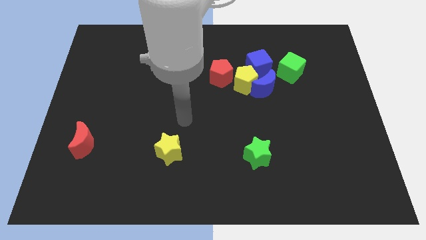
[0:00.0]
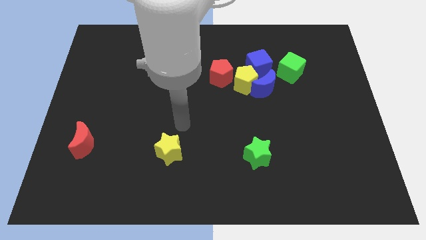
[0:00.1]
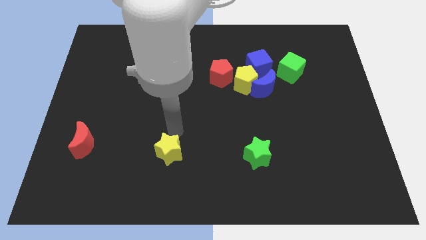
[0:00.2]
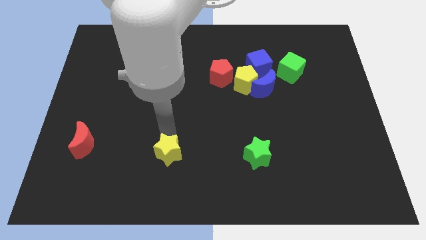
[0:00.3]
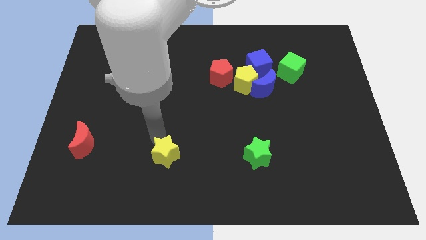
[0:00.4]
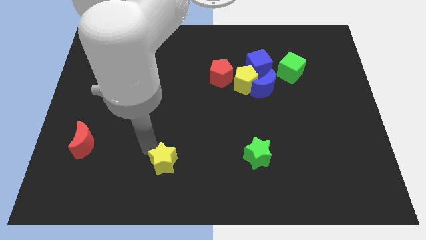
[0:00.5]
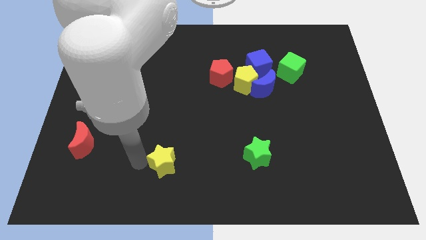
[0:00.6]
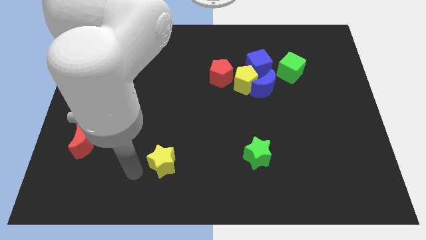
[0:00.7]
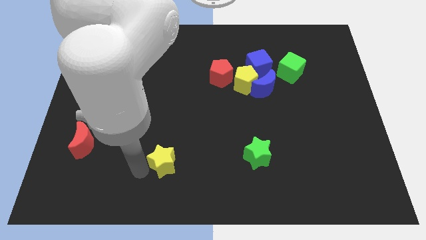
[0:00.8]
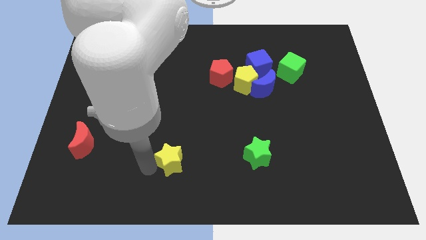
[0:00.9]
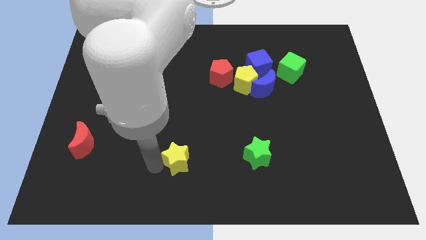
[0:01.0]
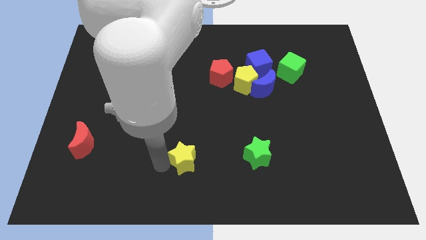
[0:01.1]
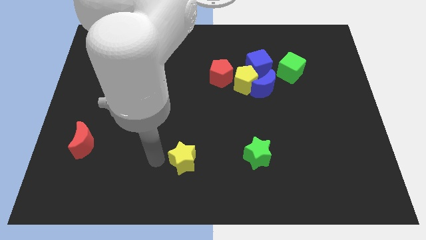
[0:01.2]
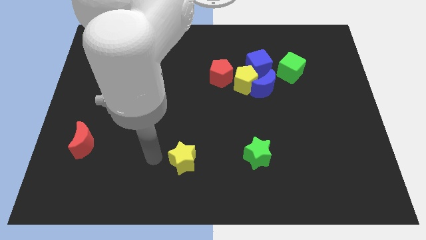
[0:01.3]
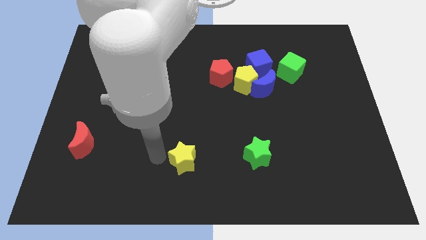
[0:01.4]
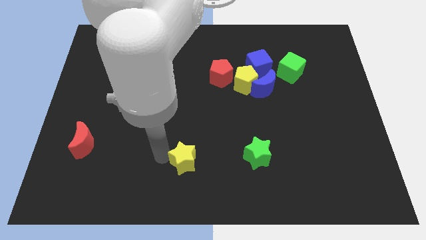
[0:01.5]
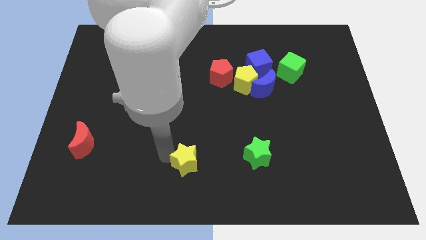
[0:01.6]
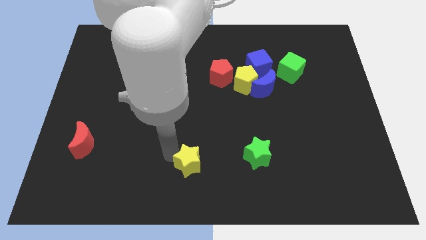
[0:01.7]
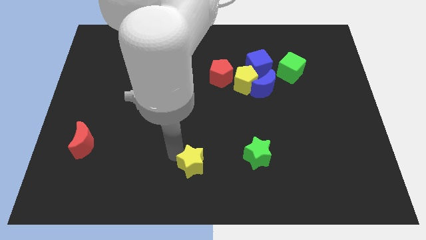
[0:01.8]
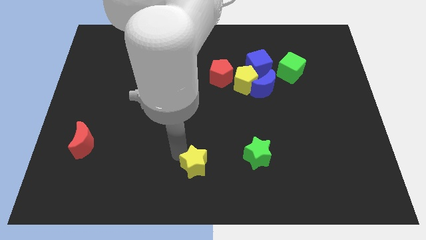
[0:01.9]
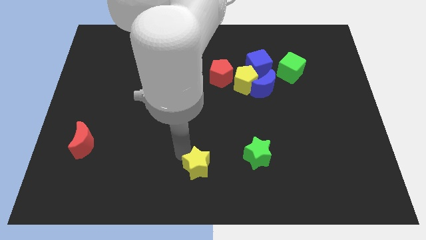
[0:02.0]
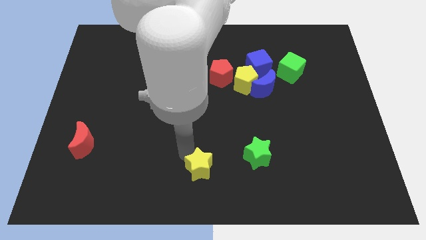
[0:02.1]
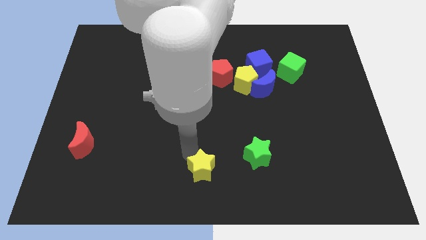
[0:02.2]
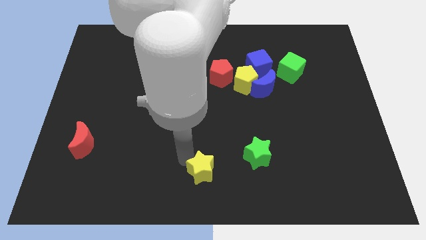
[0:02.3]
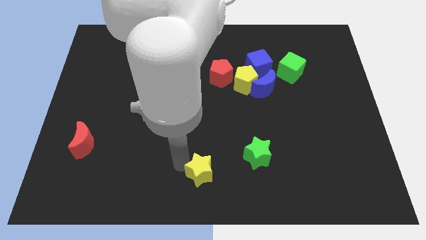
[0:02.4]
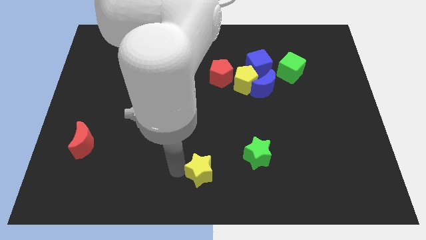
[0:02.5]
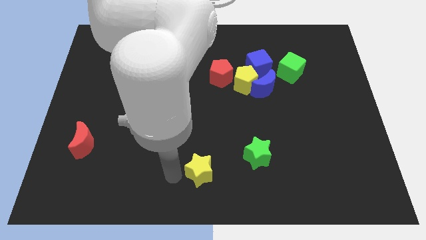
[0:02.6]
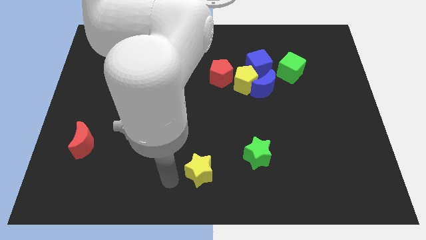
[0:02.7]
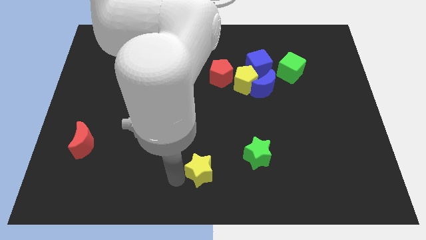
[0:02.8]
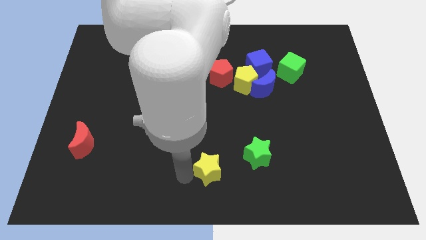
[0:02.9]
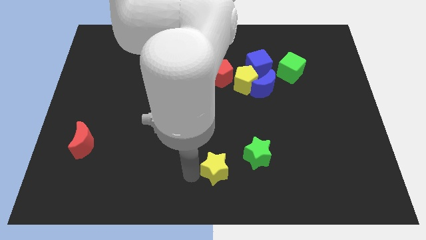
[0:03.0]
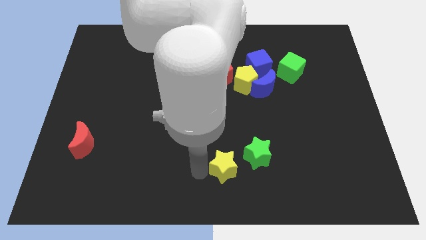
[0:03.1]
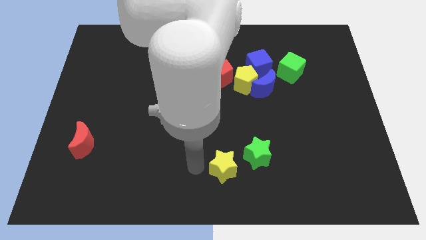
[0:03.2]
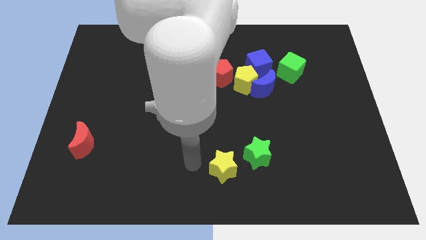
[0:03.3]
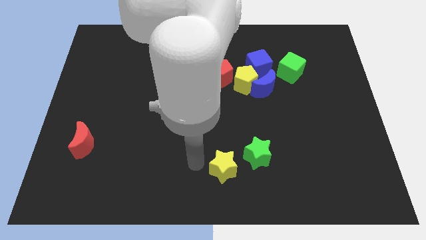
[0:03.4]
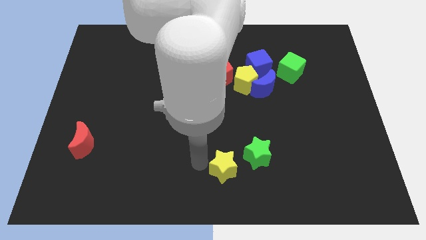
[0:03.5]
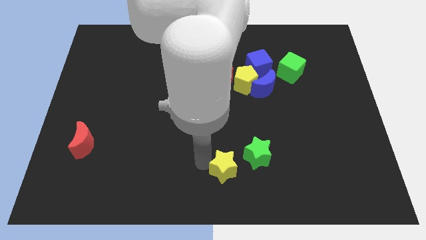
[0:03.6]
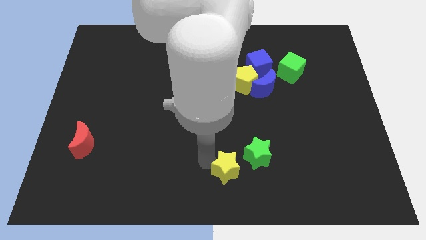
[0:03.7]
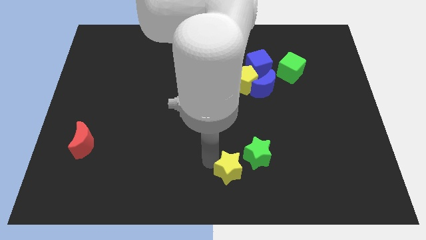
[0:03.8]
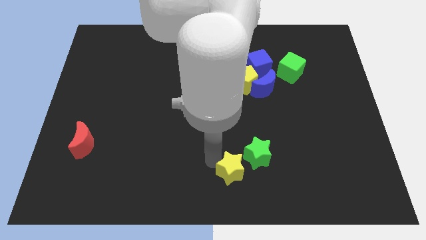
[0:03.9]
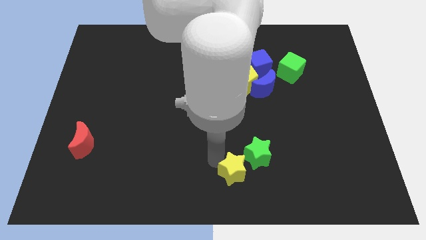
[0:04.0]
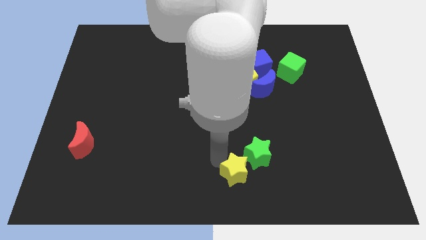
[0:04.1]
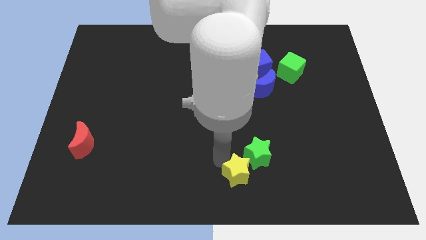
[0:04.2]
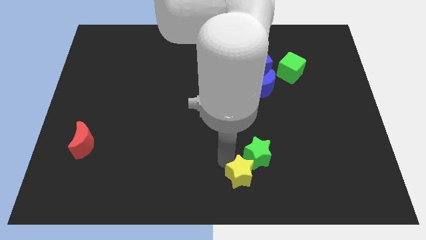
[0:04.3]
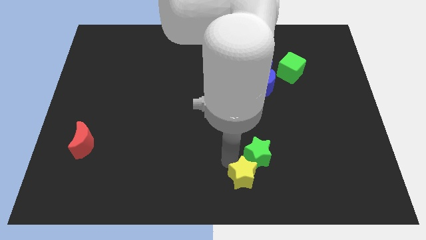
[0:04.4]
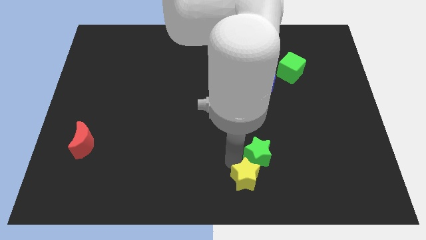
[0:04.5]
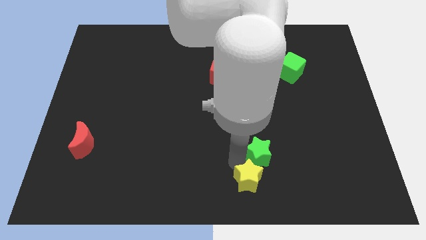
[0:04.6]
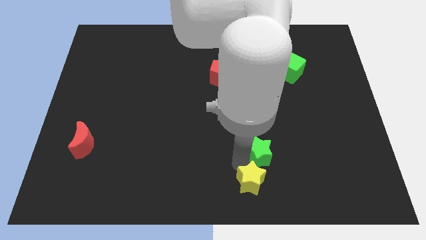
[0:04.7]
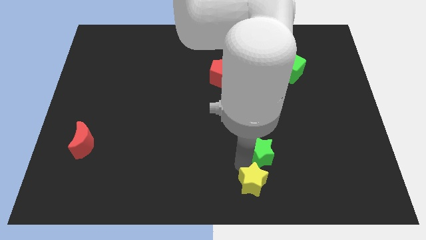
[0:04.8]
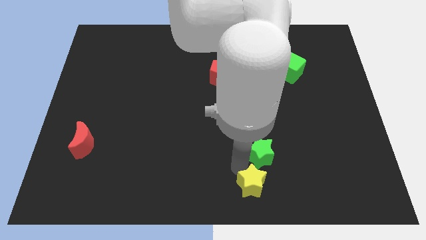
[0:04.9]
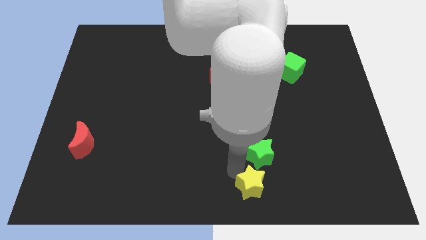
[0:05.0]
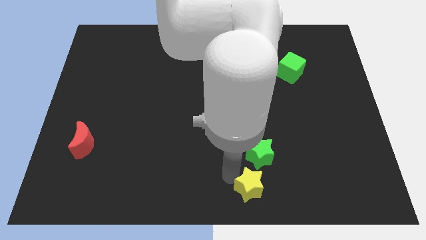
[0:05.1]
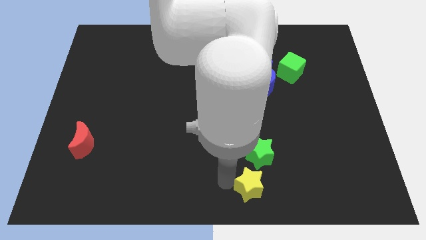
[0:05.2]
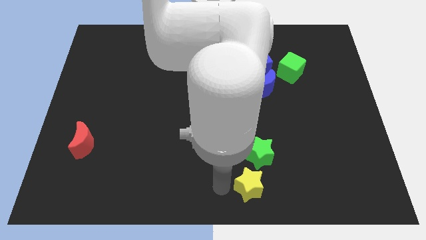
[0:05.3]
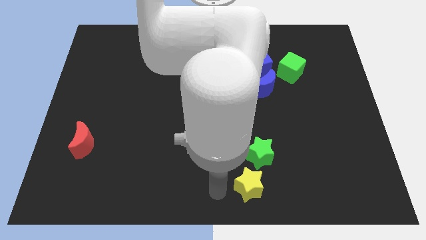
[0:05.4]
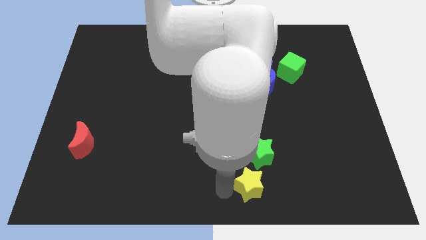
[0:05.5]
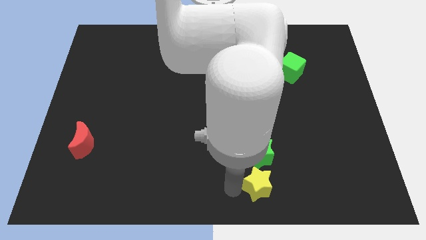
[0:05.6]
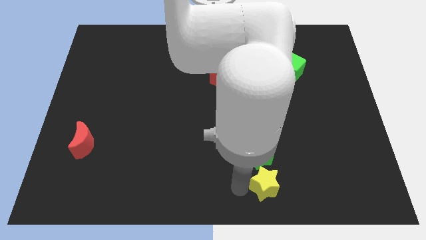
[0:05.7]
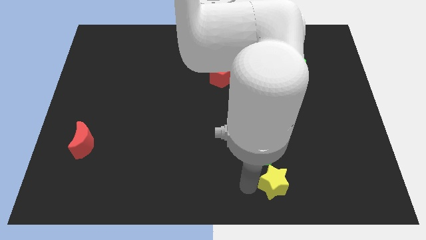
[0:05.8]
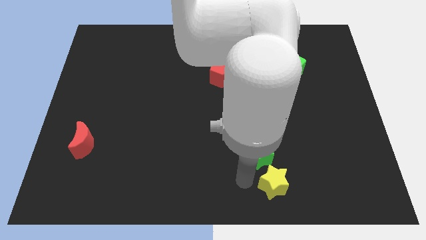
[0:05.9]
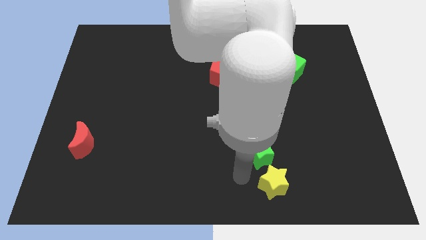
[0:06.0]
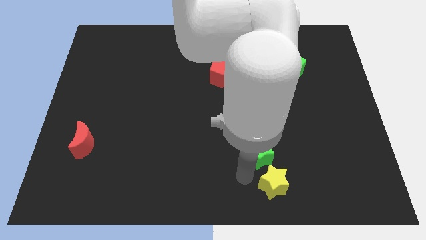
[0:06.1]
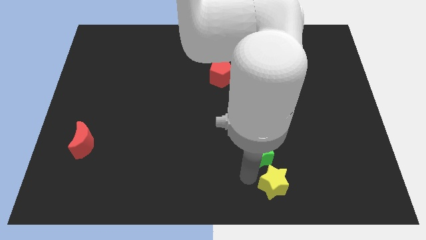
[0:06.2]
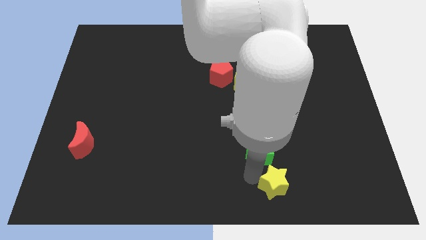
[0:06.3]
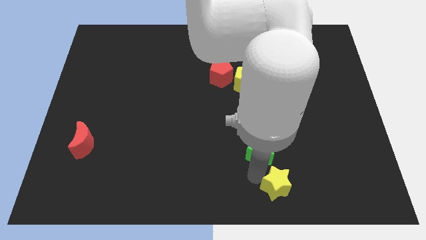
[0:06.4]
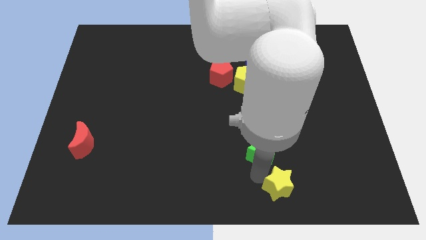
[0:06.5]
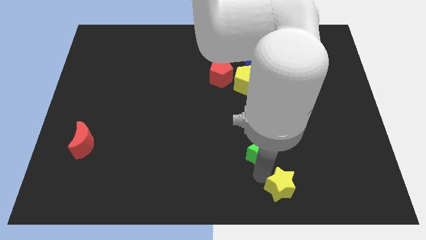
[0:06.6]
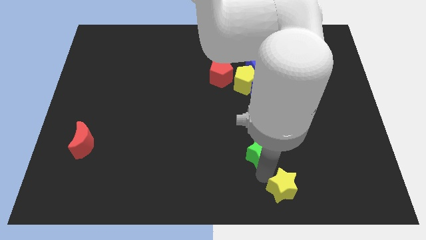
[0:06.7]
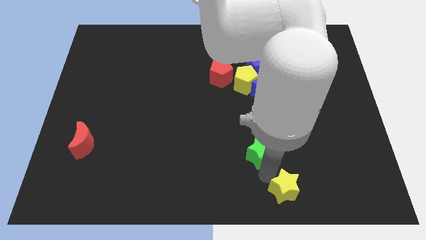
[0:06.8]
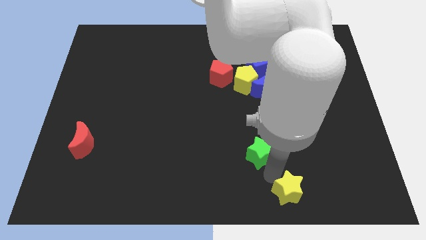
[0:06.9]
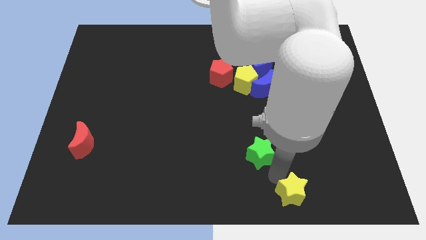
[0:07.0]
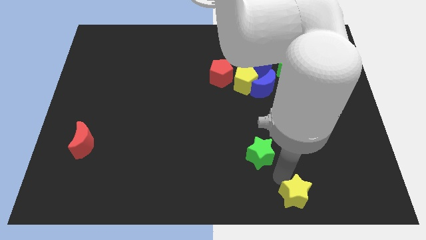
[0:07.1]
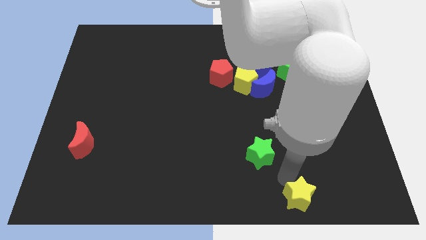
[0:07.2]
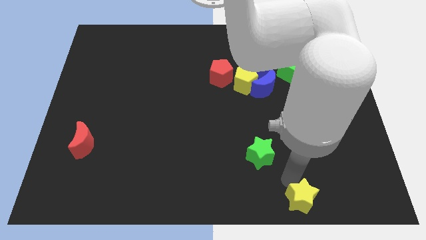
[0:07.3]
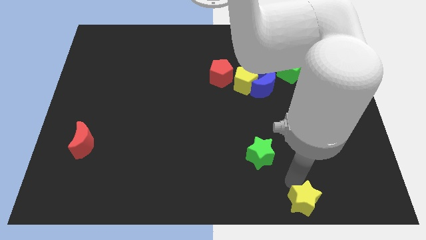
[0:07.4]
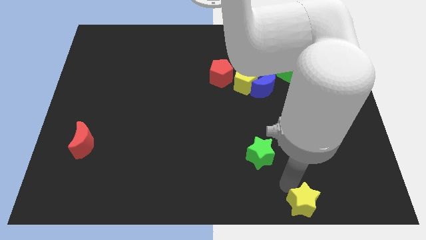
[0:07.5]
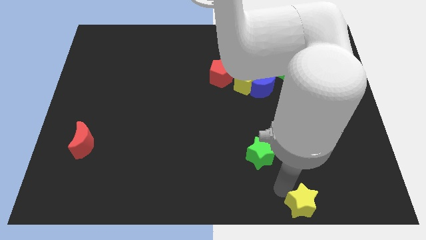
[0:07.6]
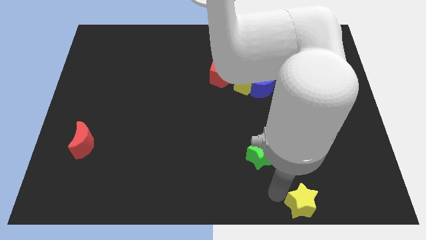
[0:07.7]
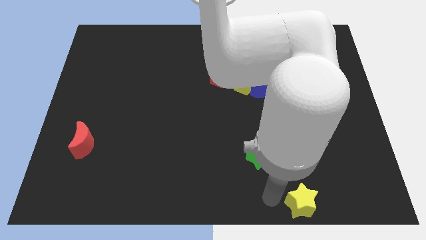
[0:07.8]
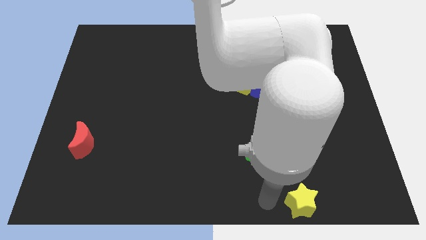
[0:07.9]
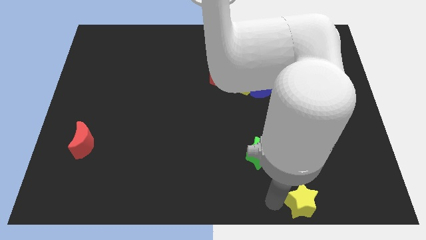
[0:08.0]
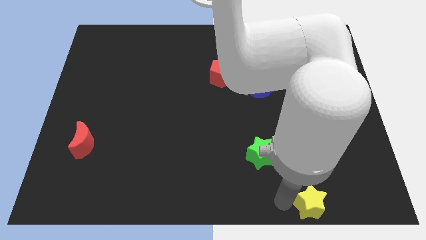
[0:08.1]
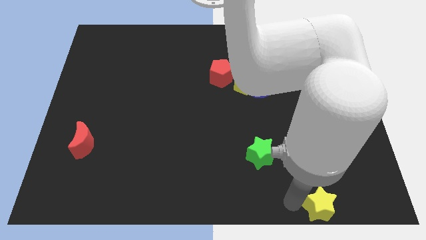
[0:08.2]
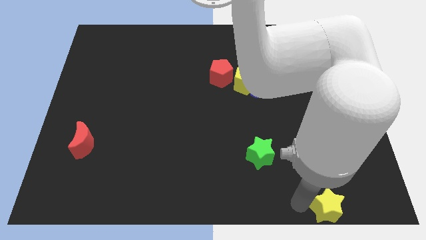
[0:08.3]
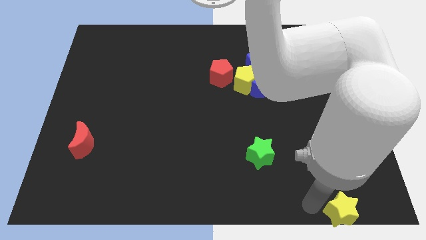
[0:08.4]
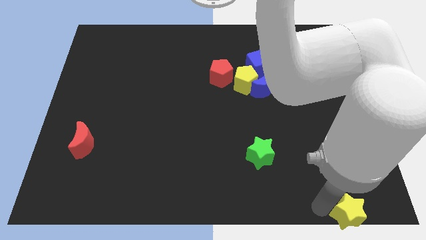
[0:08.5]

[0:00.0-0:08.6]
push the yellow star to the bottom right corner
